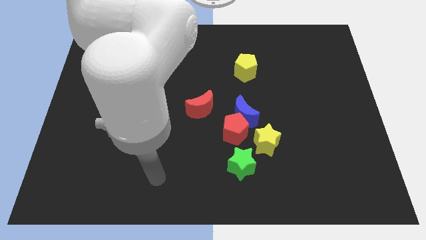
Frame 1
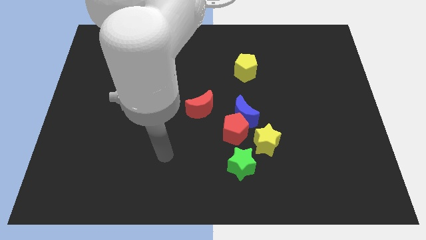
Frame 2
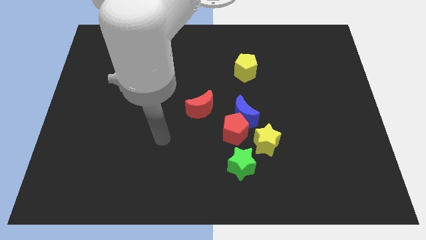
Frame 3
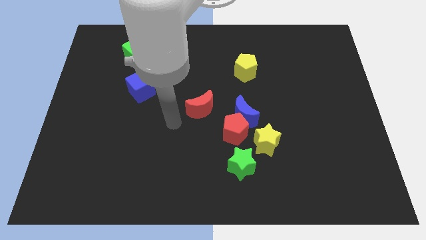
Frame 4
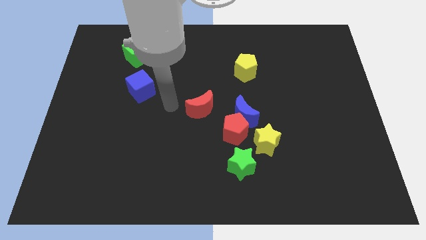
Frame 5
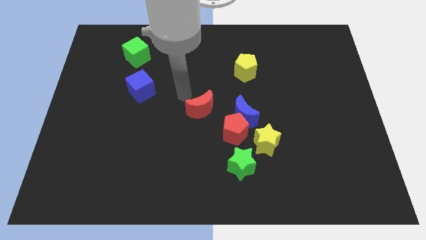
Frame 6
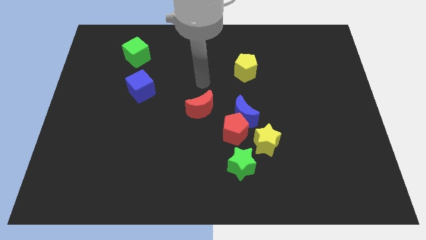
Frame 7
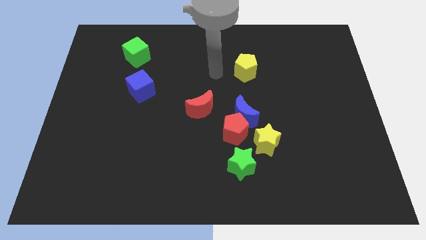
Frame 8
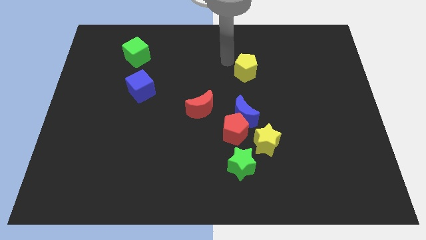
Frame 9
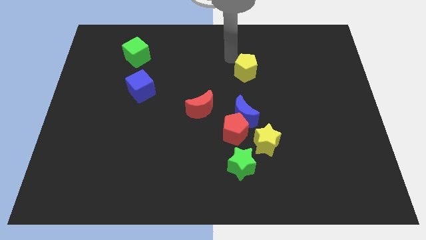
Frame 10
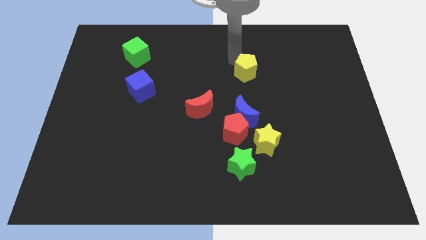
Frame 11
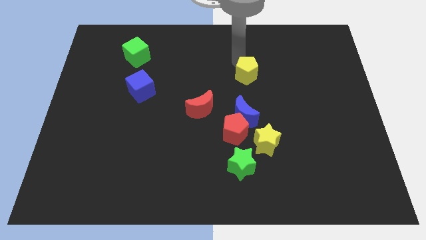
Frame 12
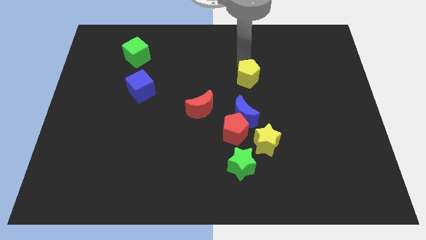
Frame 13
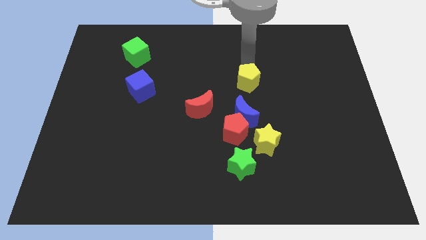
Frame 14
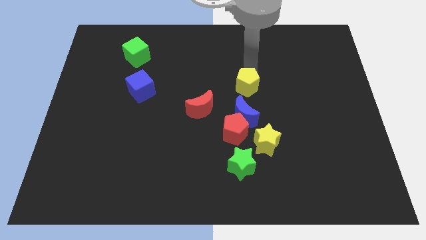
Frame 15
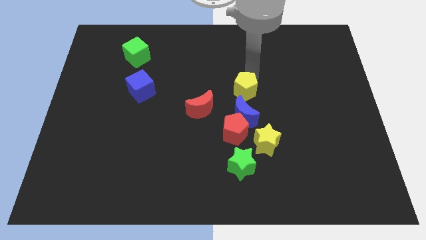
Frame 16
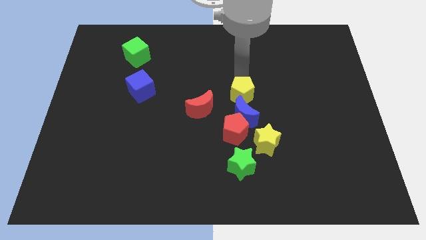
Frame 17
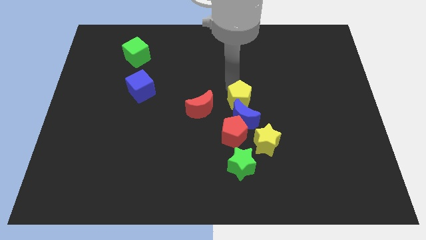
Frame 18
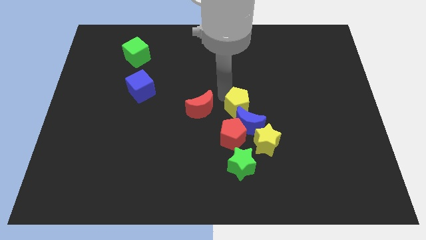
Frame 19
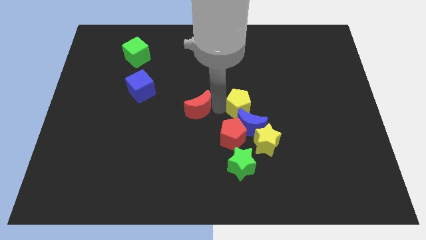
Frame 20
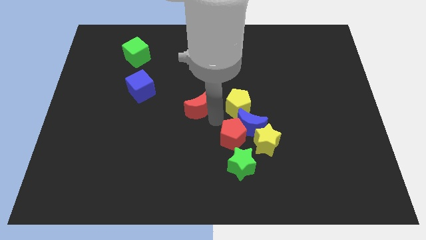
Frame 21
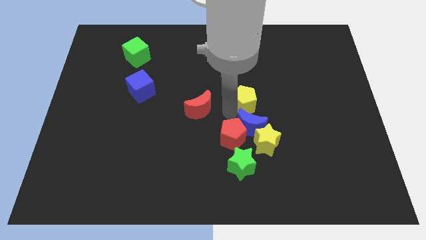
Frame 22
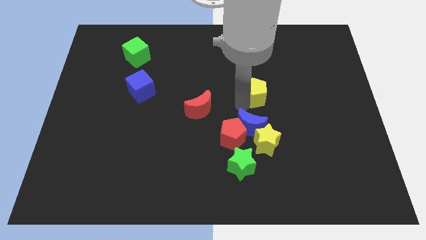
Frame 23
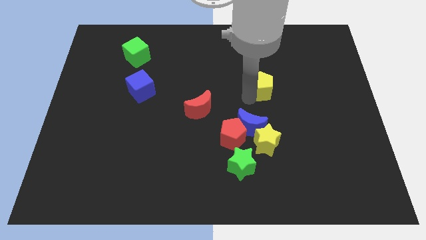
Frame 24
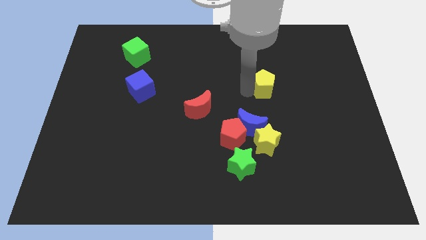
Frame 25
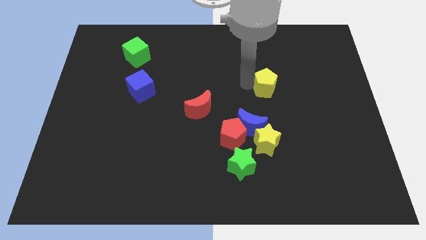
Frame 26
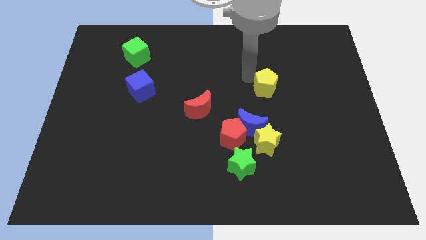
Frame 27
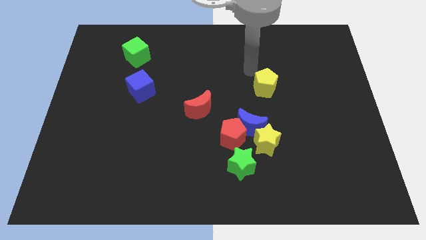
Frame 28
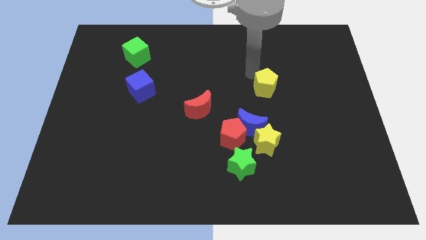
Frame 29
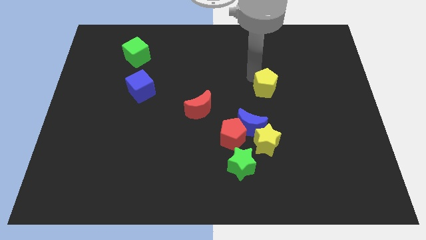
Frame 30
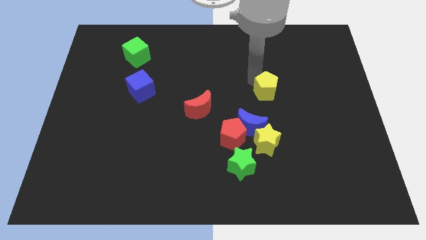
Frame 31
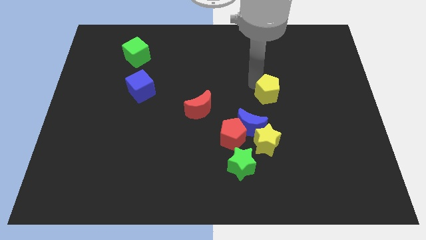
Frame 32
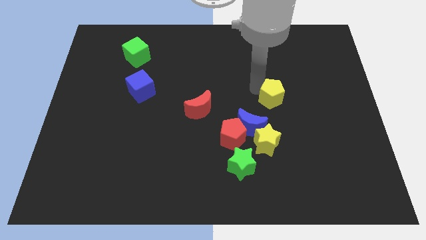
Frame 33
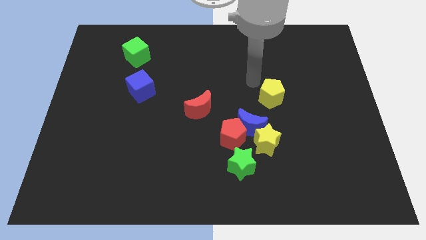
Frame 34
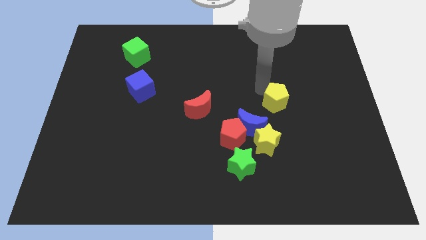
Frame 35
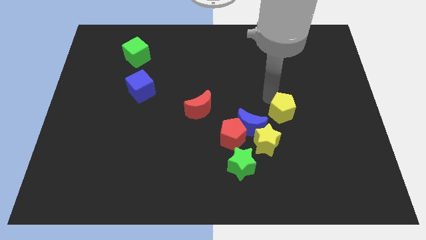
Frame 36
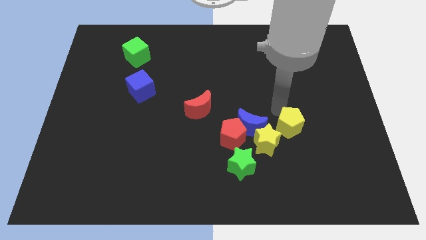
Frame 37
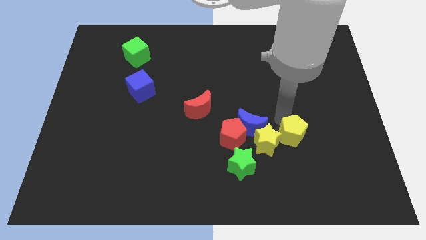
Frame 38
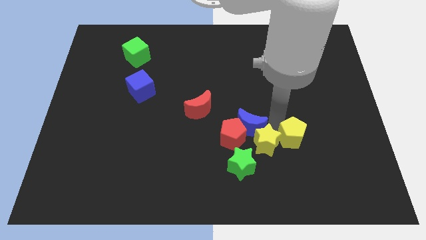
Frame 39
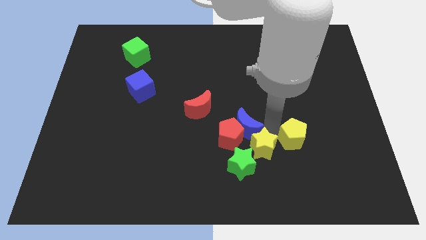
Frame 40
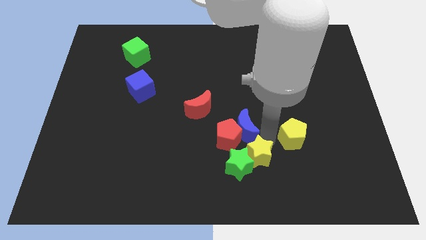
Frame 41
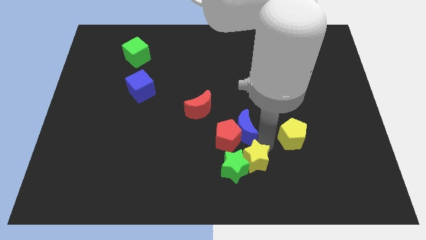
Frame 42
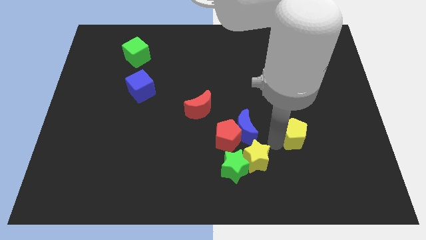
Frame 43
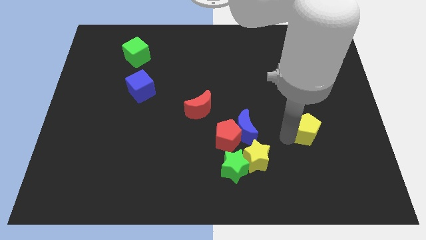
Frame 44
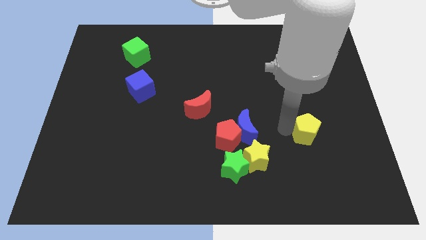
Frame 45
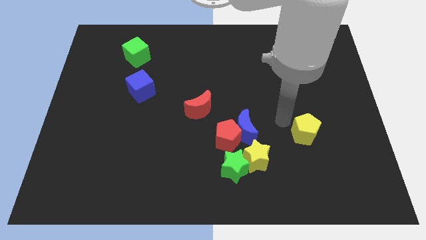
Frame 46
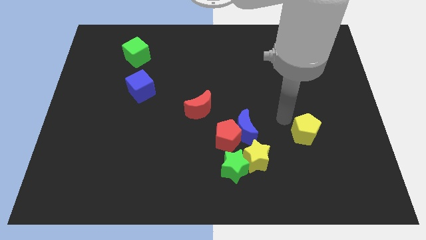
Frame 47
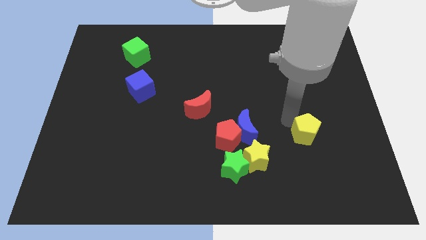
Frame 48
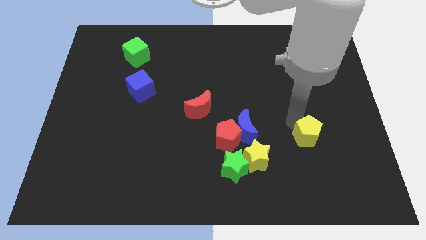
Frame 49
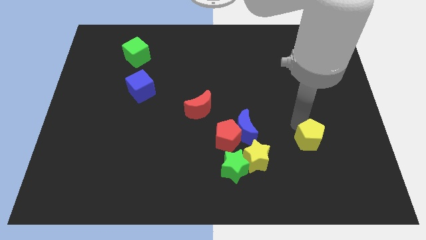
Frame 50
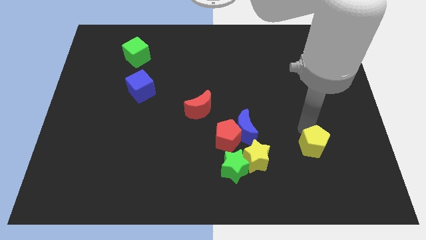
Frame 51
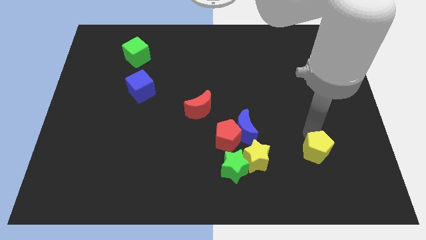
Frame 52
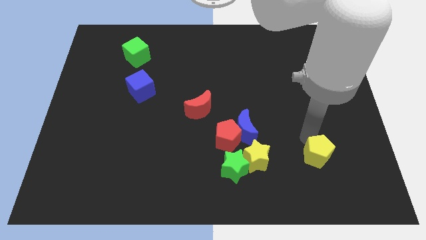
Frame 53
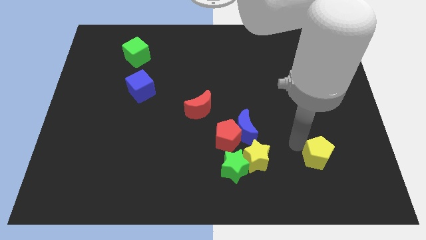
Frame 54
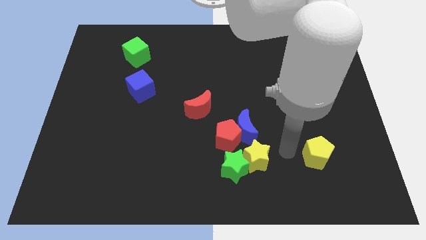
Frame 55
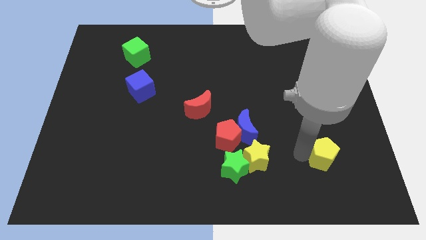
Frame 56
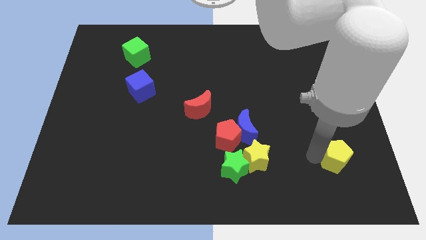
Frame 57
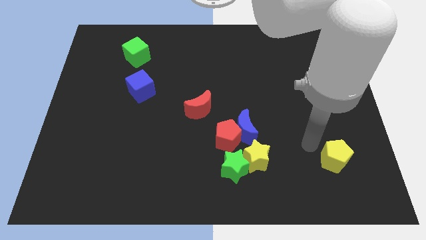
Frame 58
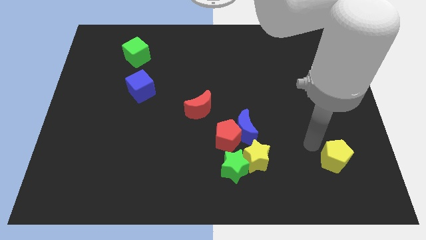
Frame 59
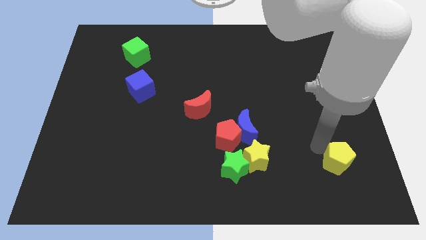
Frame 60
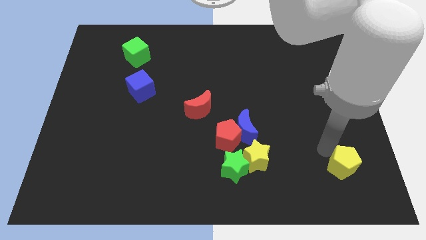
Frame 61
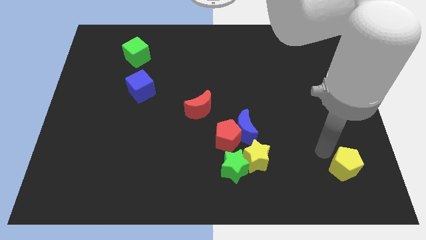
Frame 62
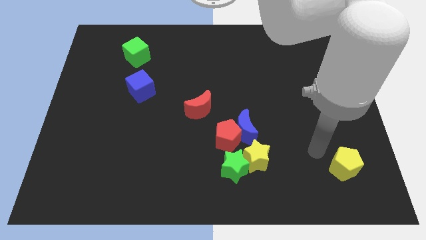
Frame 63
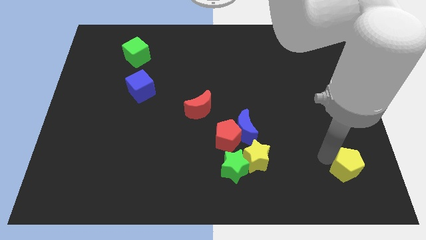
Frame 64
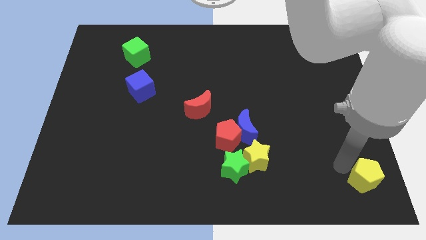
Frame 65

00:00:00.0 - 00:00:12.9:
put the yellow pentagon to the bottom right
